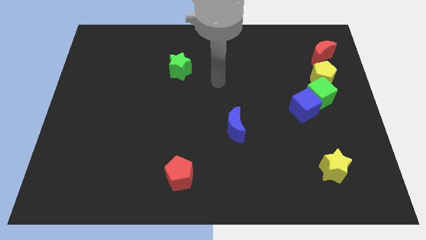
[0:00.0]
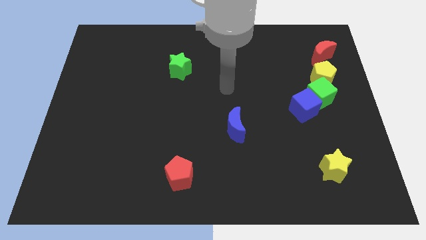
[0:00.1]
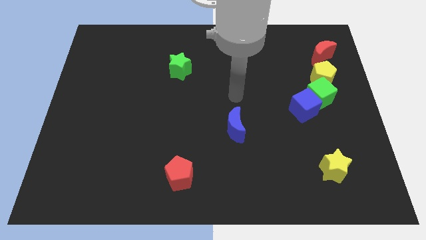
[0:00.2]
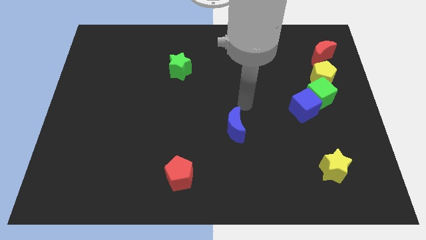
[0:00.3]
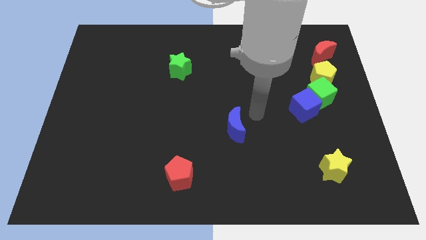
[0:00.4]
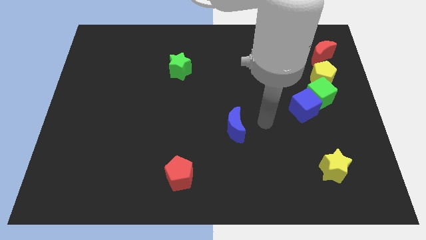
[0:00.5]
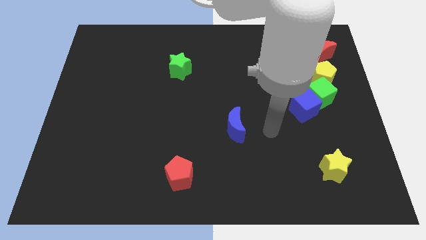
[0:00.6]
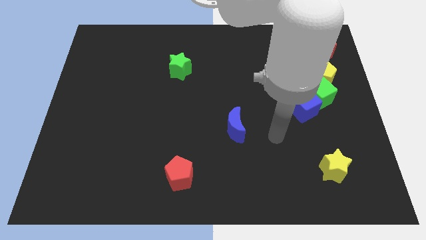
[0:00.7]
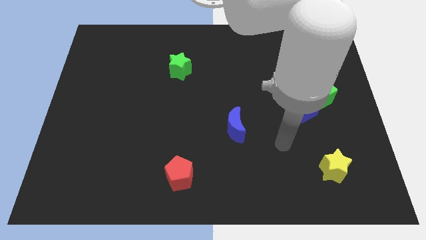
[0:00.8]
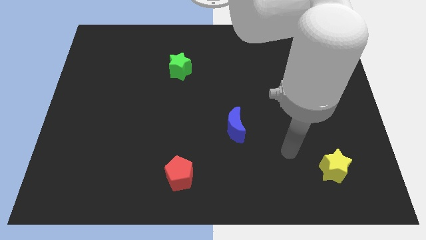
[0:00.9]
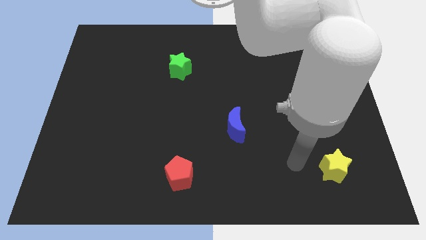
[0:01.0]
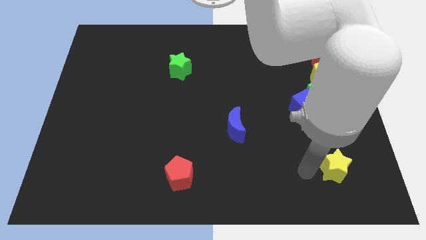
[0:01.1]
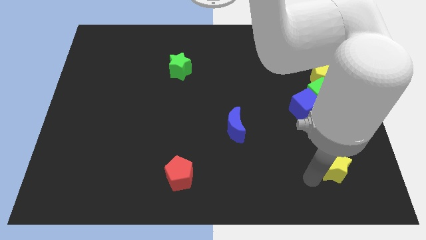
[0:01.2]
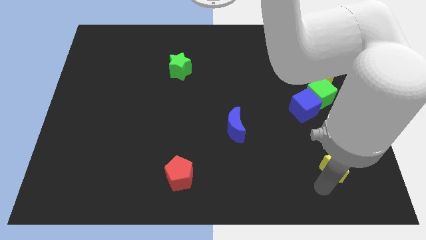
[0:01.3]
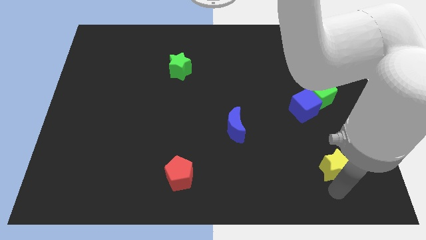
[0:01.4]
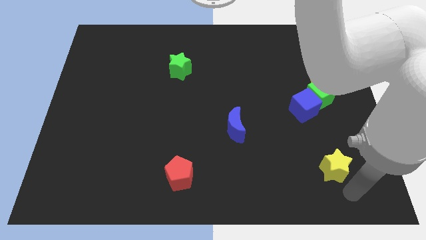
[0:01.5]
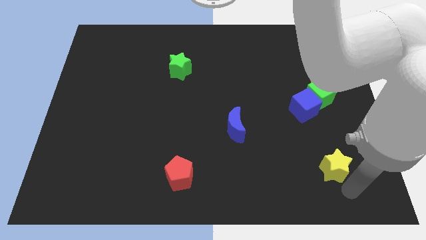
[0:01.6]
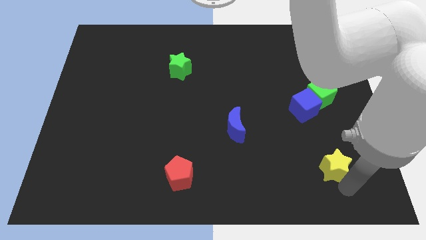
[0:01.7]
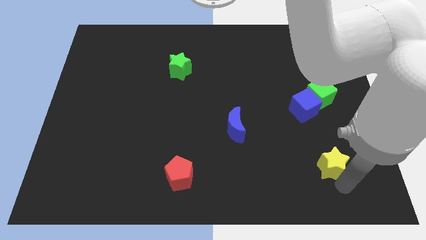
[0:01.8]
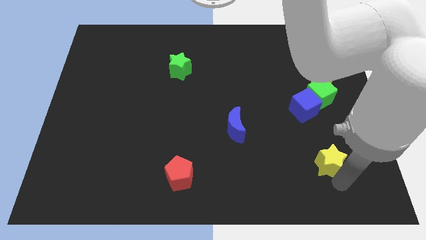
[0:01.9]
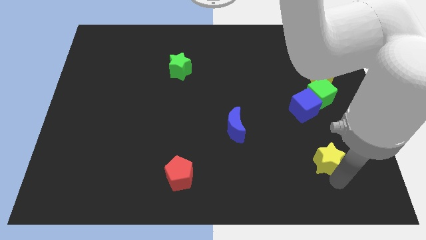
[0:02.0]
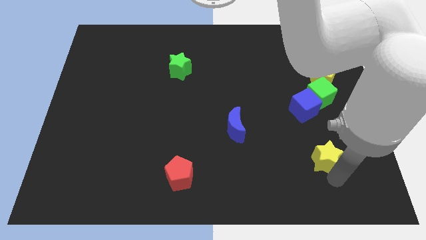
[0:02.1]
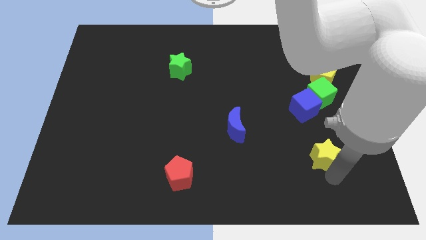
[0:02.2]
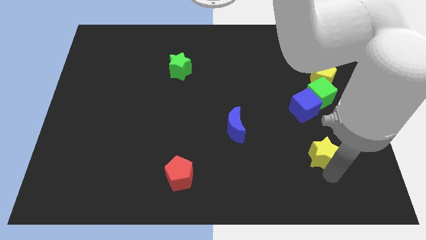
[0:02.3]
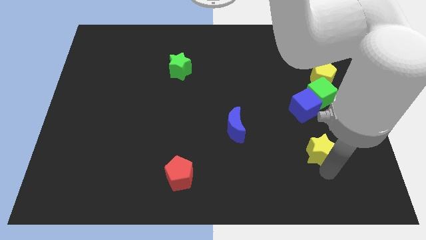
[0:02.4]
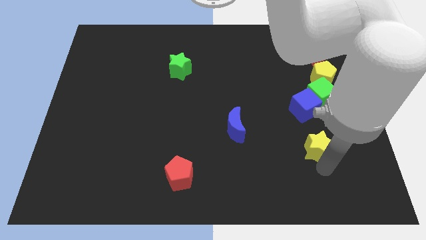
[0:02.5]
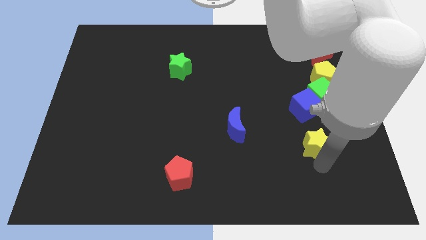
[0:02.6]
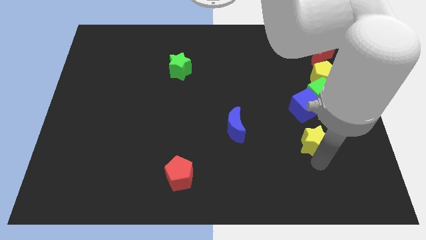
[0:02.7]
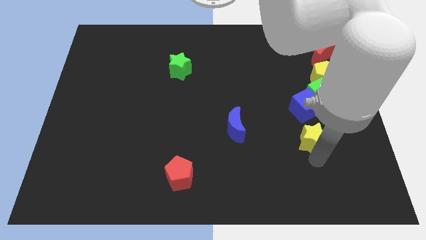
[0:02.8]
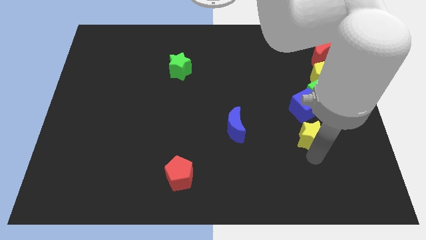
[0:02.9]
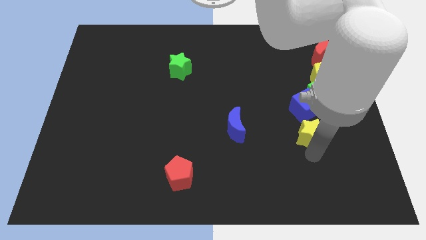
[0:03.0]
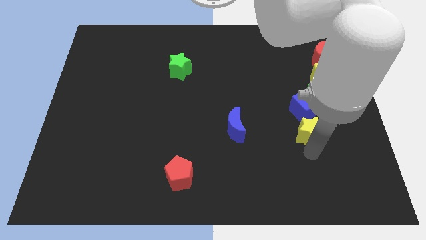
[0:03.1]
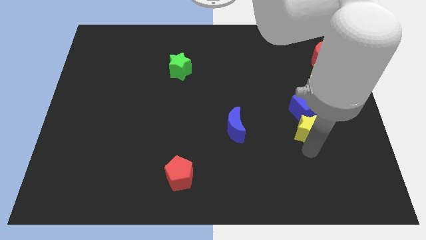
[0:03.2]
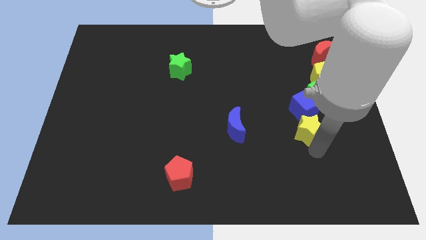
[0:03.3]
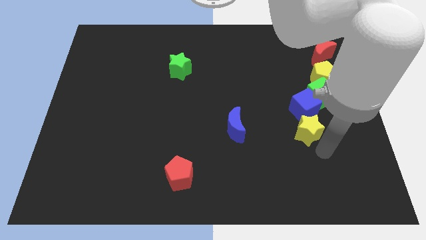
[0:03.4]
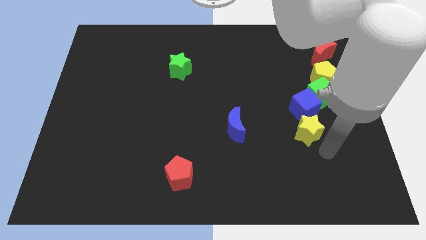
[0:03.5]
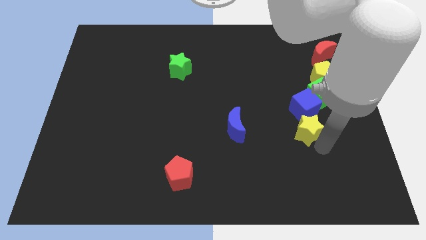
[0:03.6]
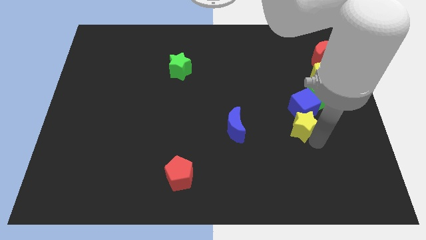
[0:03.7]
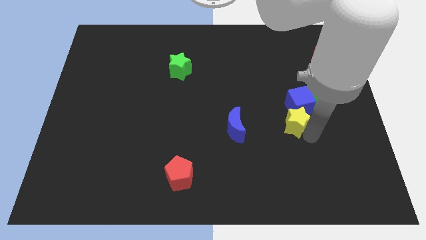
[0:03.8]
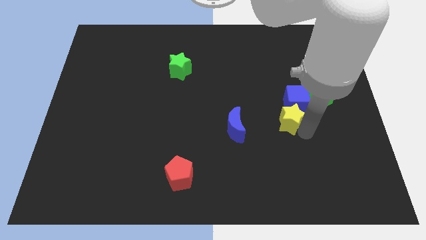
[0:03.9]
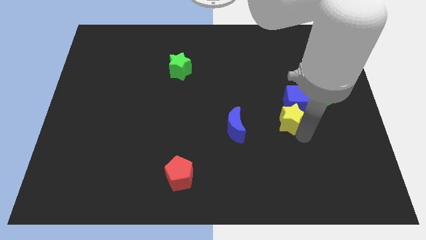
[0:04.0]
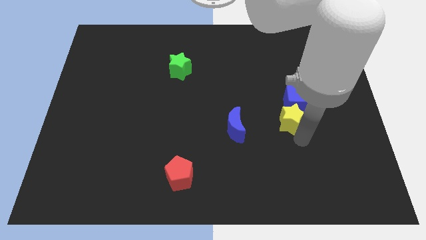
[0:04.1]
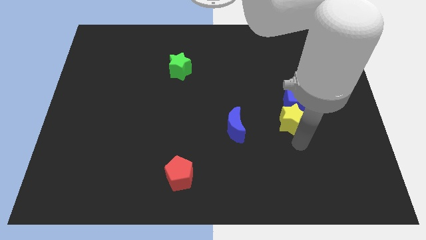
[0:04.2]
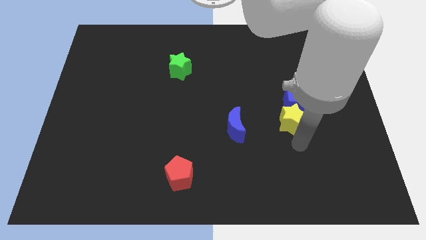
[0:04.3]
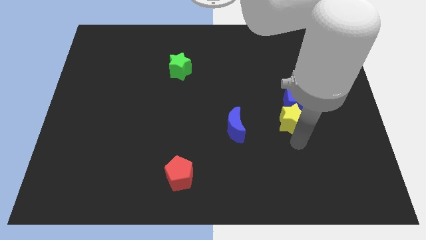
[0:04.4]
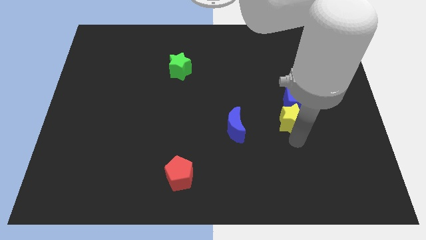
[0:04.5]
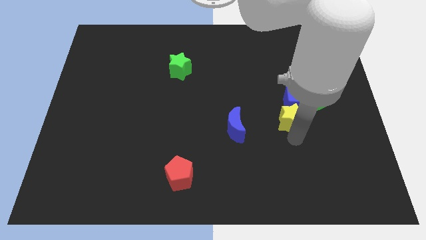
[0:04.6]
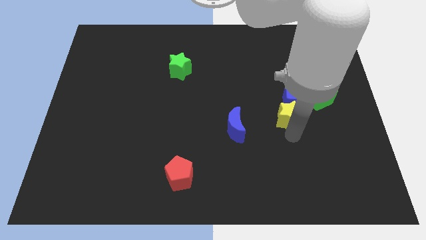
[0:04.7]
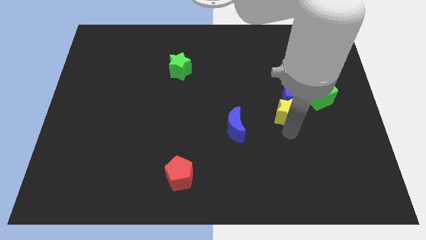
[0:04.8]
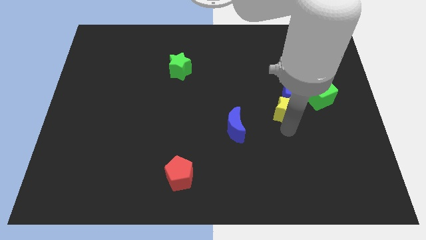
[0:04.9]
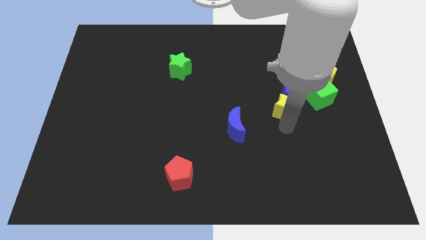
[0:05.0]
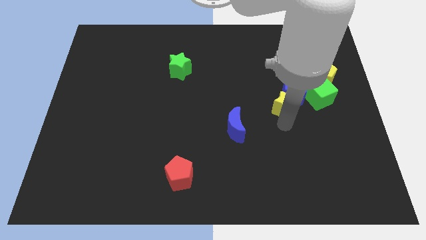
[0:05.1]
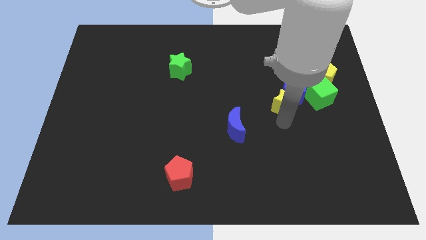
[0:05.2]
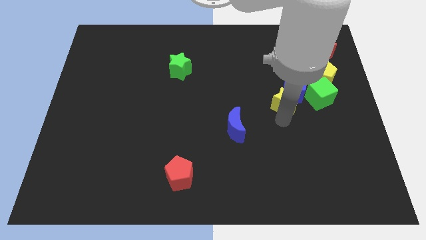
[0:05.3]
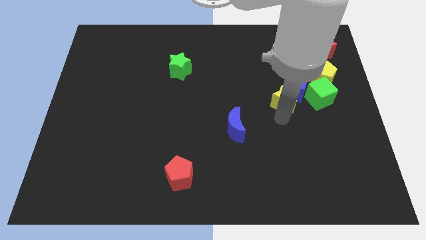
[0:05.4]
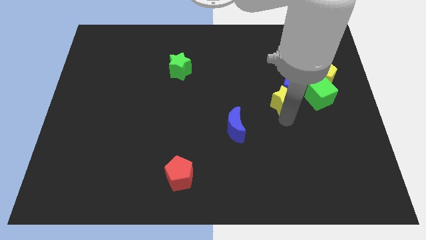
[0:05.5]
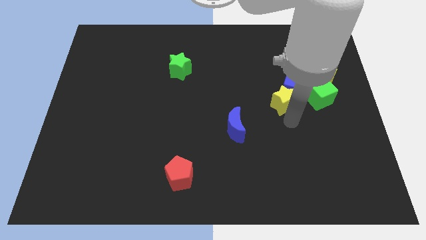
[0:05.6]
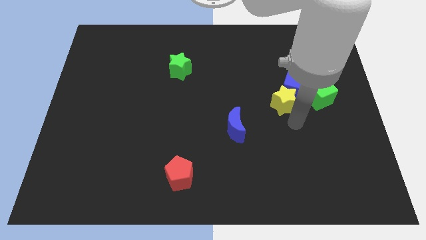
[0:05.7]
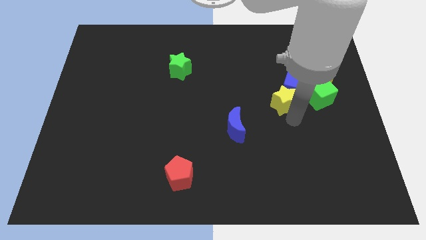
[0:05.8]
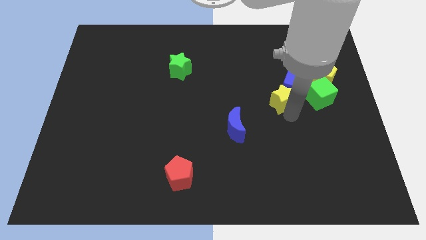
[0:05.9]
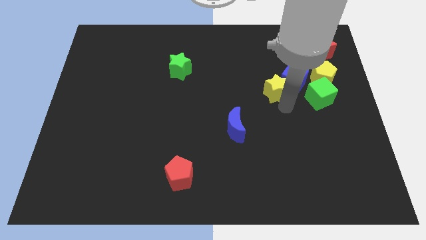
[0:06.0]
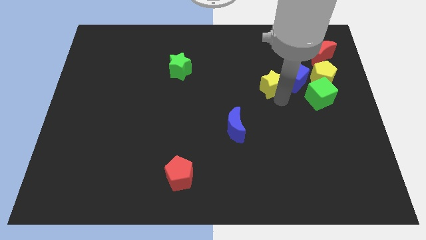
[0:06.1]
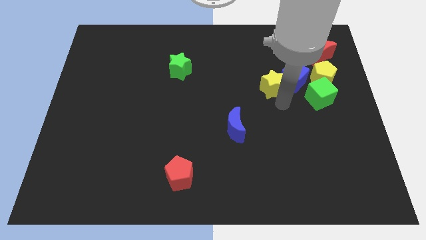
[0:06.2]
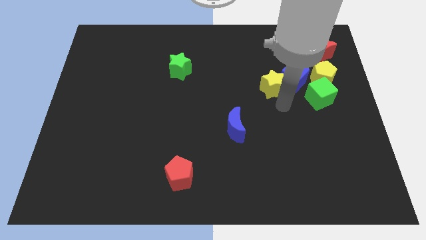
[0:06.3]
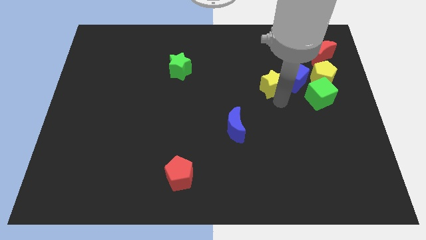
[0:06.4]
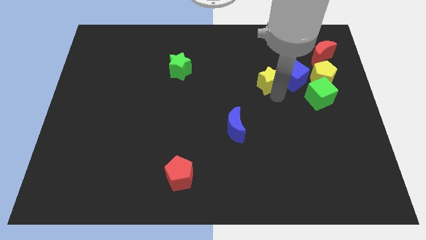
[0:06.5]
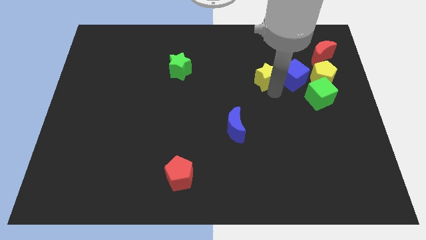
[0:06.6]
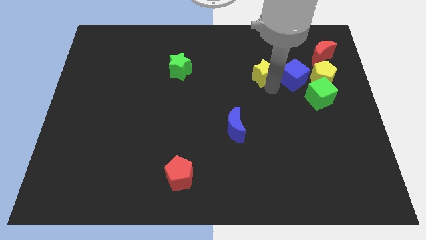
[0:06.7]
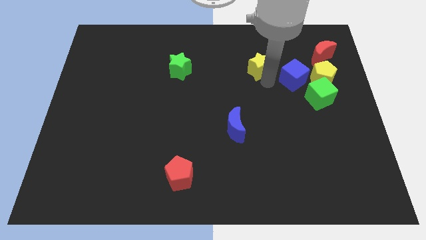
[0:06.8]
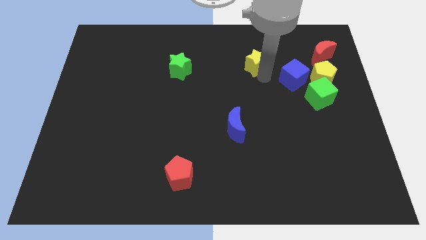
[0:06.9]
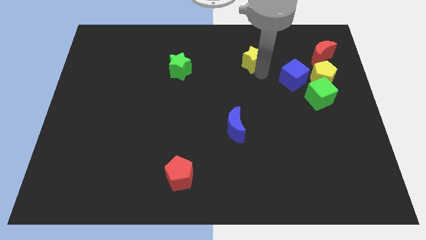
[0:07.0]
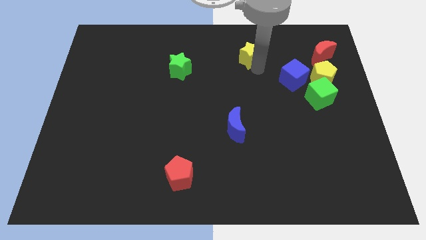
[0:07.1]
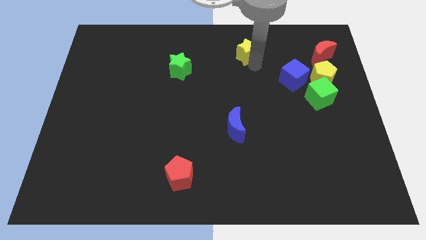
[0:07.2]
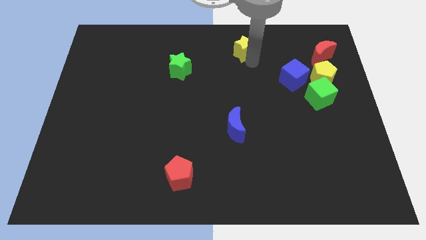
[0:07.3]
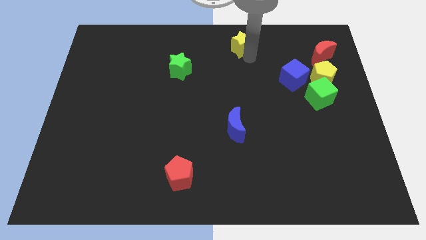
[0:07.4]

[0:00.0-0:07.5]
move the yellow star to the towards your base
